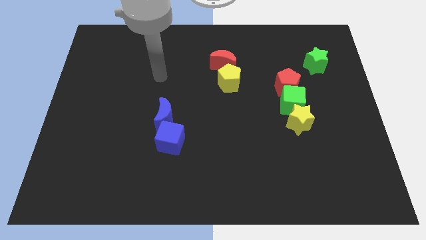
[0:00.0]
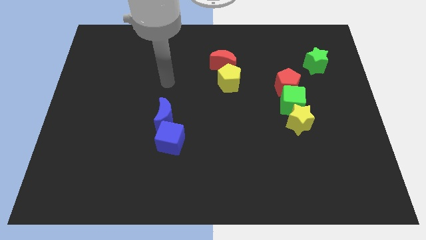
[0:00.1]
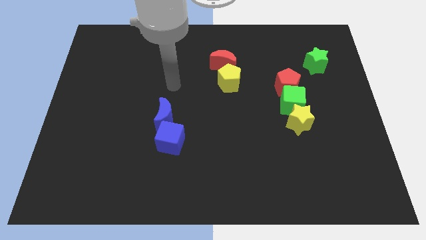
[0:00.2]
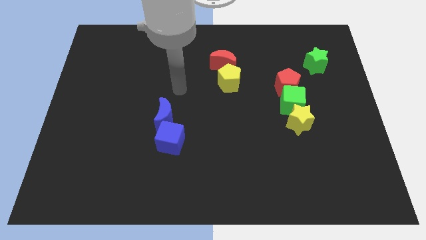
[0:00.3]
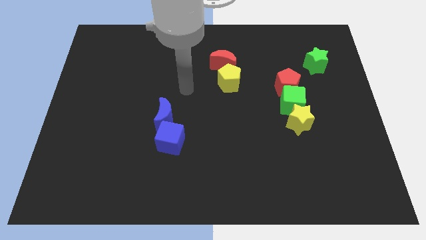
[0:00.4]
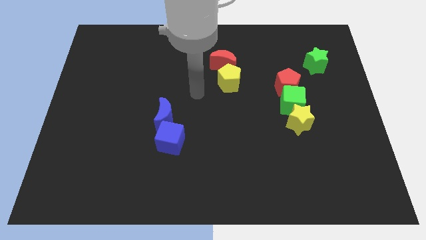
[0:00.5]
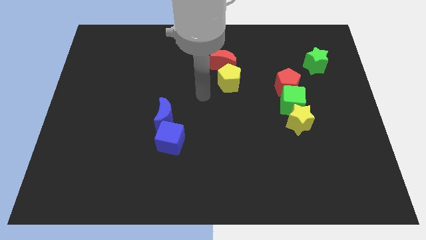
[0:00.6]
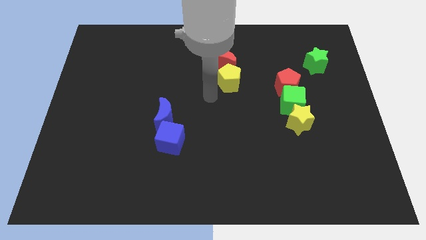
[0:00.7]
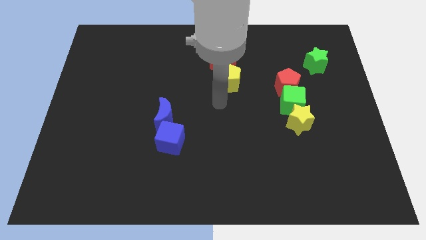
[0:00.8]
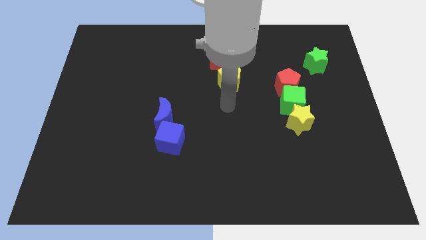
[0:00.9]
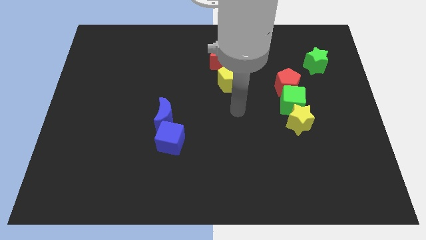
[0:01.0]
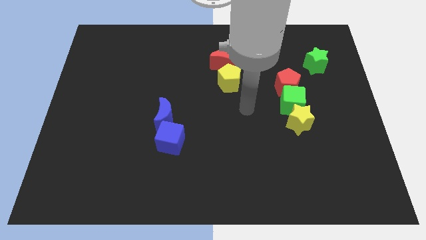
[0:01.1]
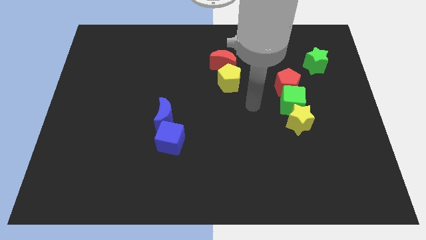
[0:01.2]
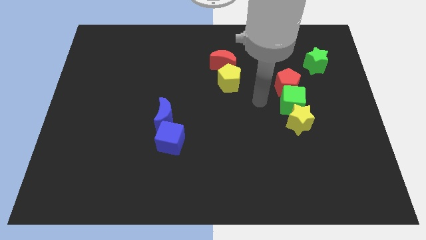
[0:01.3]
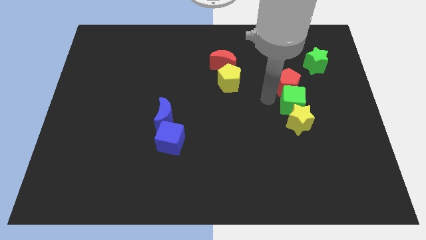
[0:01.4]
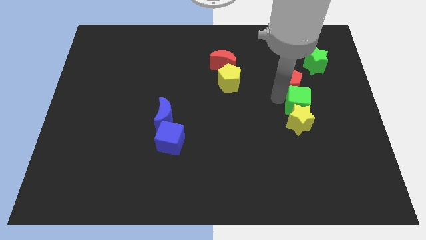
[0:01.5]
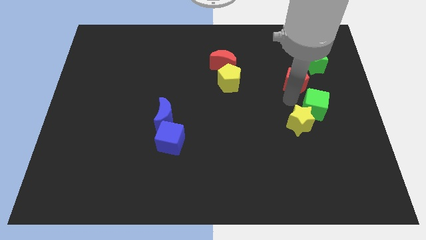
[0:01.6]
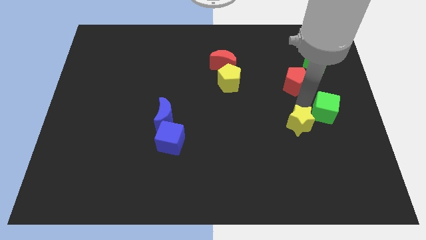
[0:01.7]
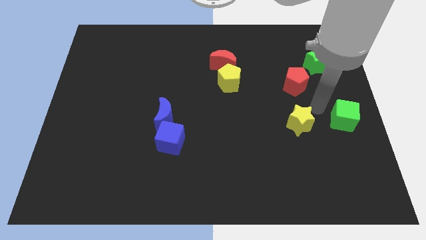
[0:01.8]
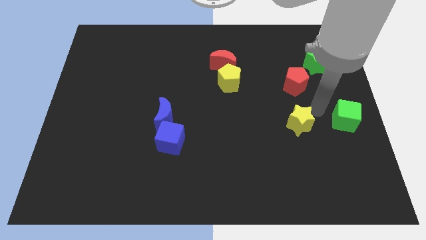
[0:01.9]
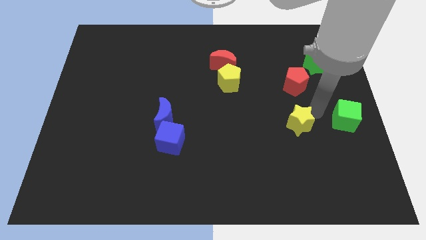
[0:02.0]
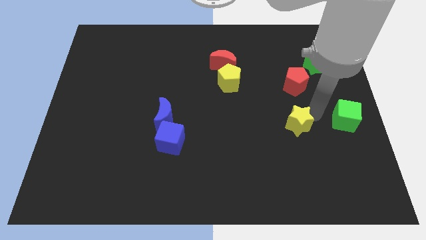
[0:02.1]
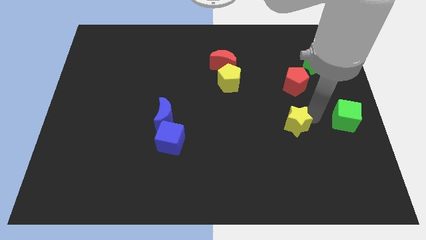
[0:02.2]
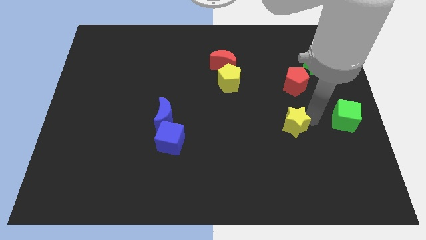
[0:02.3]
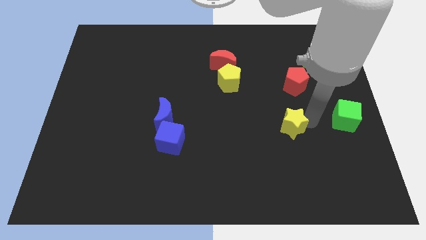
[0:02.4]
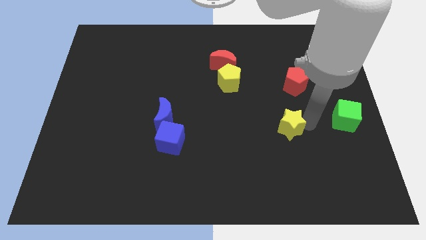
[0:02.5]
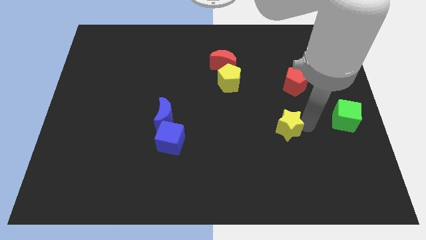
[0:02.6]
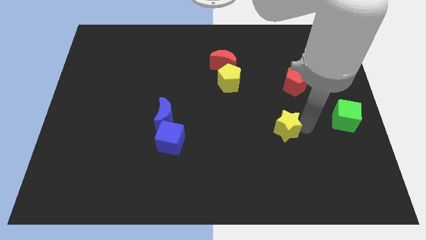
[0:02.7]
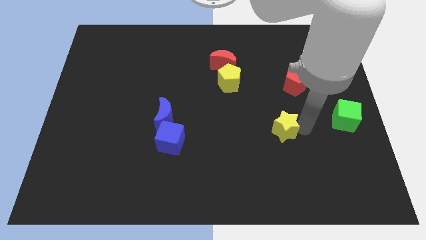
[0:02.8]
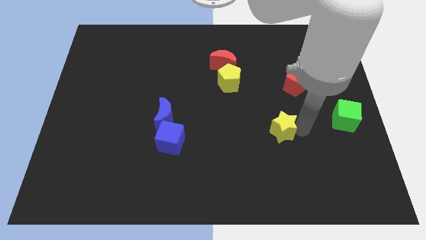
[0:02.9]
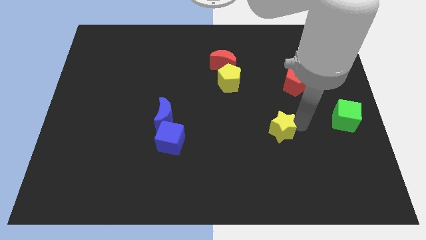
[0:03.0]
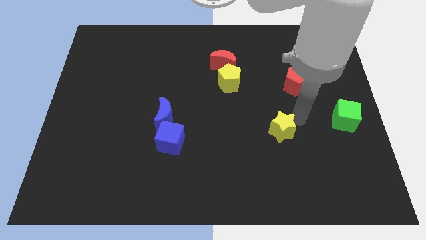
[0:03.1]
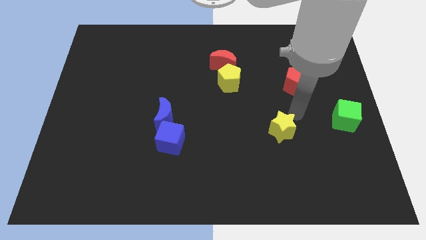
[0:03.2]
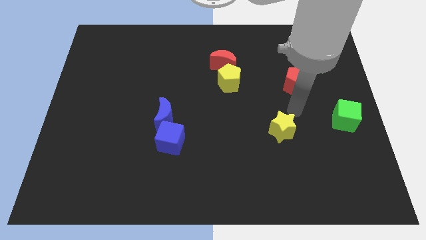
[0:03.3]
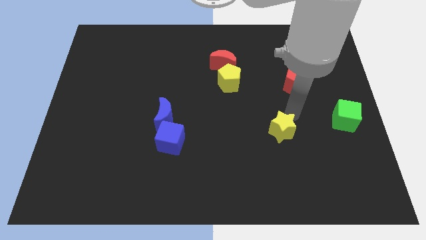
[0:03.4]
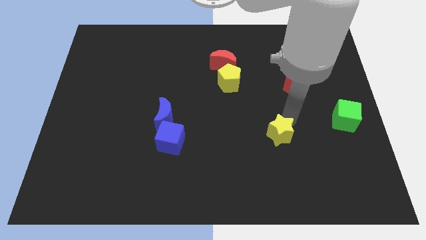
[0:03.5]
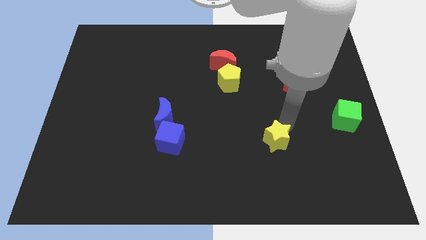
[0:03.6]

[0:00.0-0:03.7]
push the yellow star a little bit downwards and then to the left

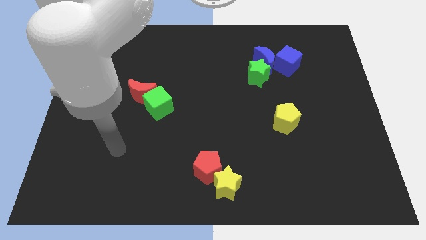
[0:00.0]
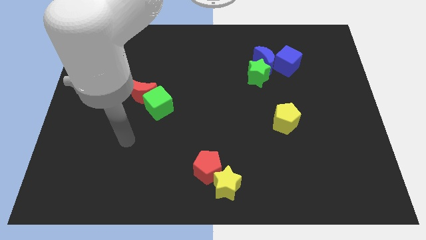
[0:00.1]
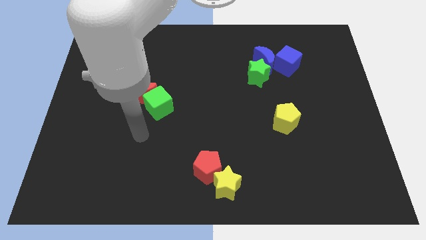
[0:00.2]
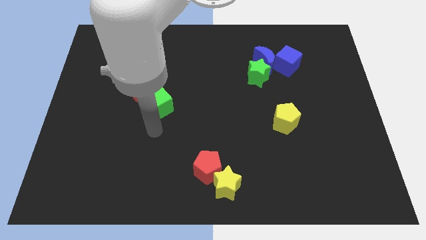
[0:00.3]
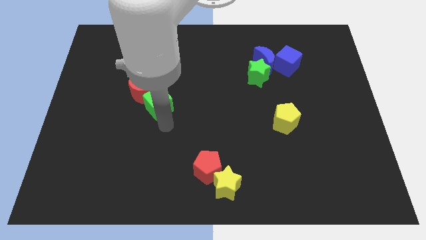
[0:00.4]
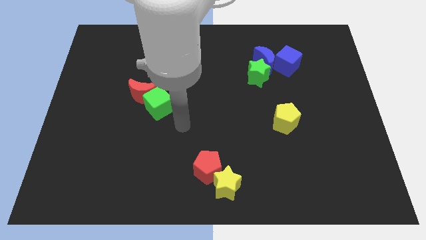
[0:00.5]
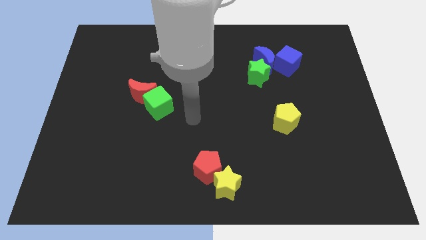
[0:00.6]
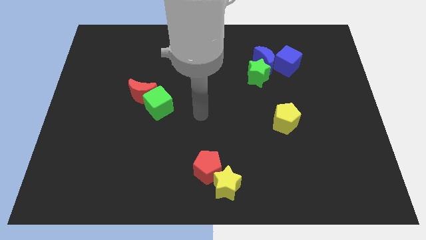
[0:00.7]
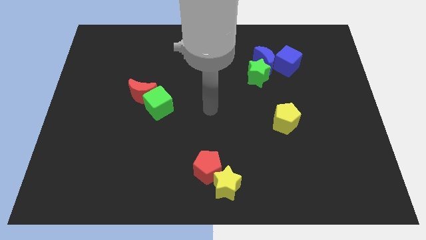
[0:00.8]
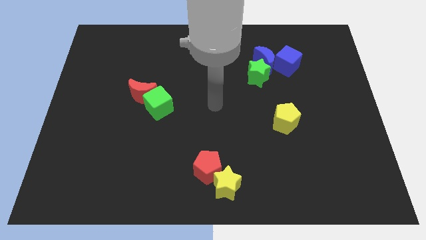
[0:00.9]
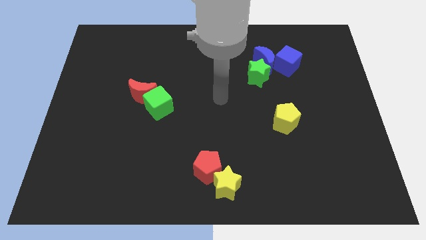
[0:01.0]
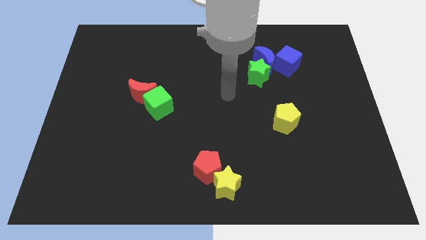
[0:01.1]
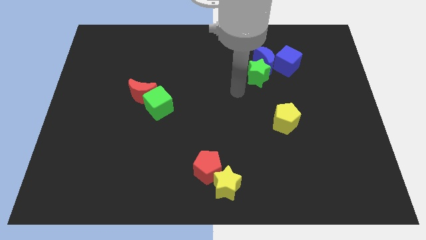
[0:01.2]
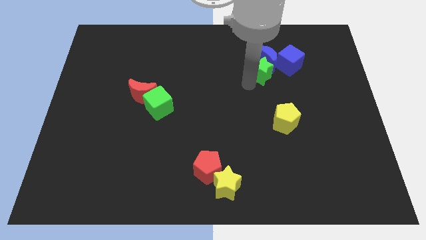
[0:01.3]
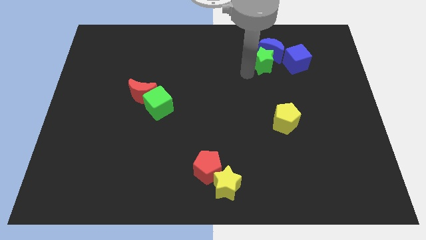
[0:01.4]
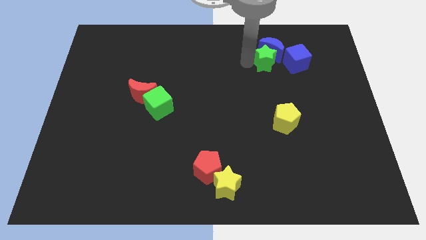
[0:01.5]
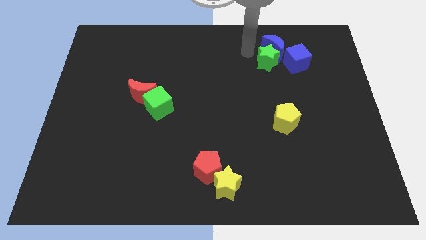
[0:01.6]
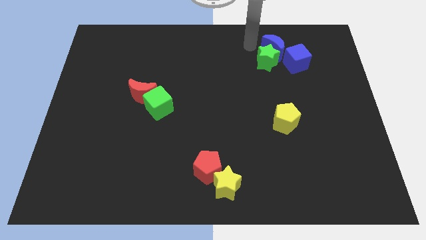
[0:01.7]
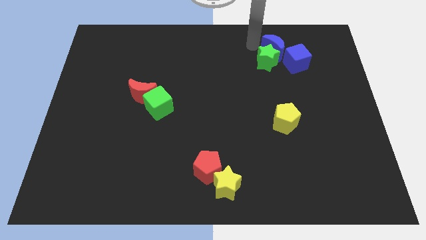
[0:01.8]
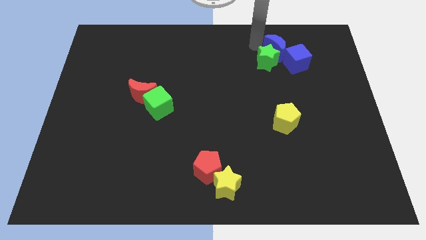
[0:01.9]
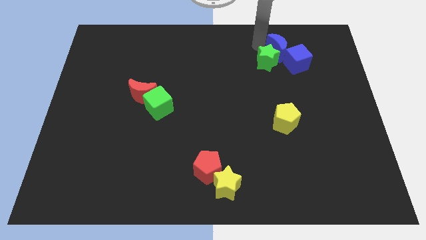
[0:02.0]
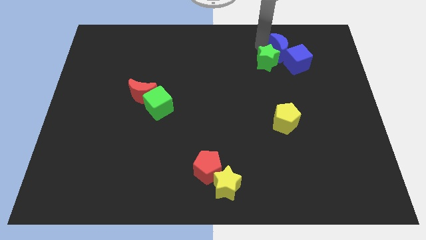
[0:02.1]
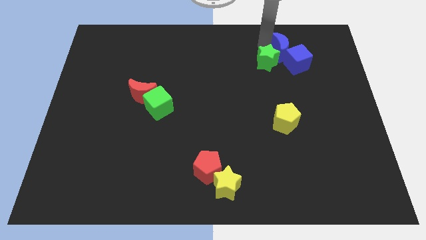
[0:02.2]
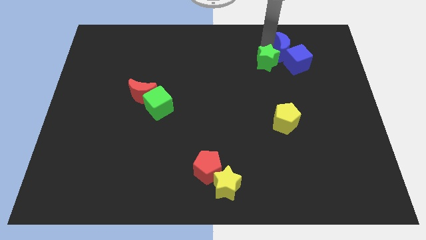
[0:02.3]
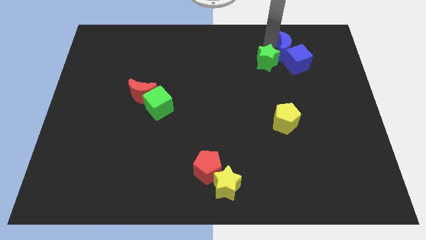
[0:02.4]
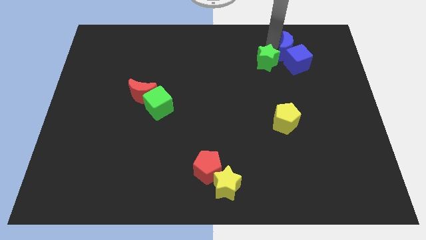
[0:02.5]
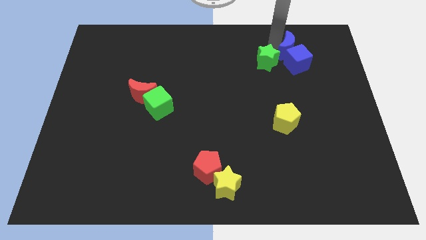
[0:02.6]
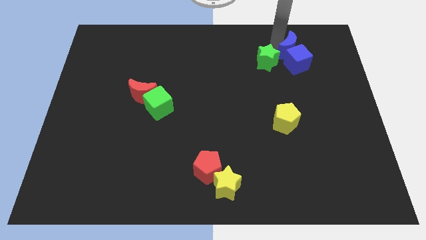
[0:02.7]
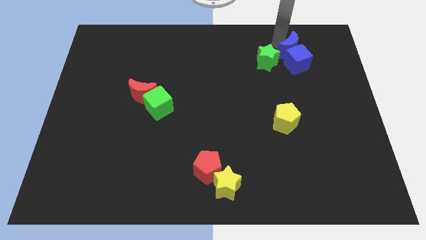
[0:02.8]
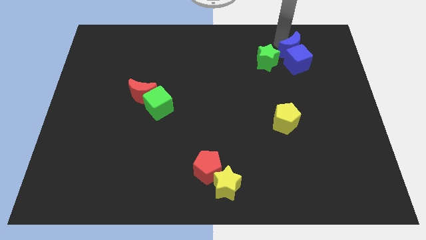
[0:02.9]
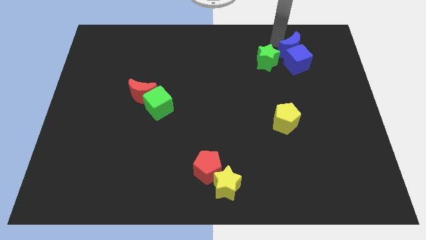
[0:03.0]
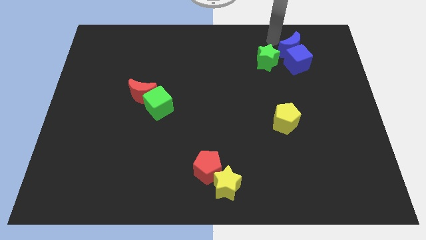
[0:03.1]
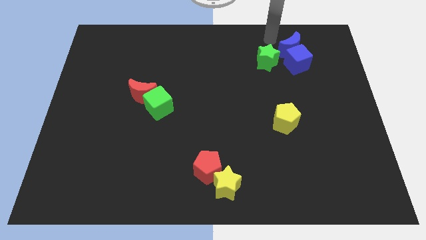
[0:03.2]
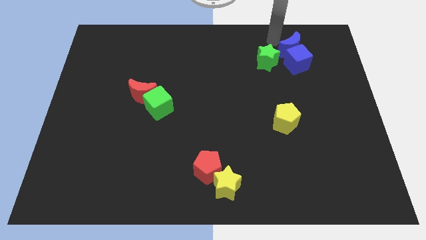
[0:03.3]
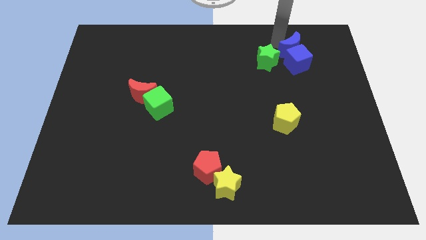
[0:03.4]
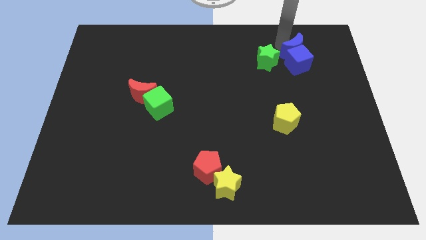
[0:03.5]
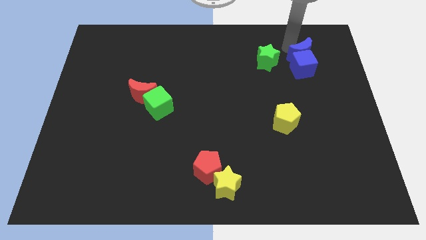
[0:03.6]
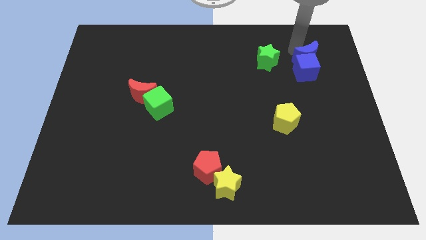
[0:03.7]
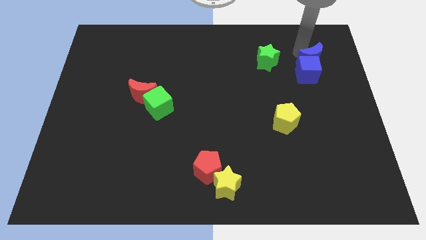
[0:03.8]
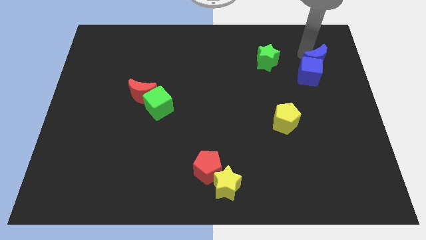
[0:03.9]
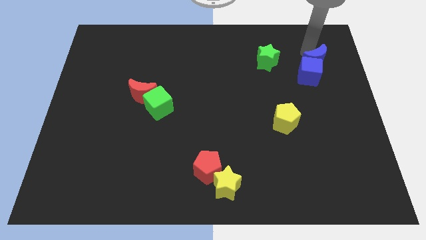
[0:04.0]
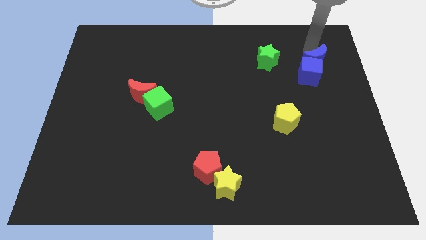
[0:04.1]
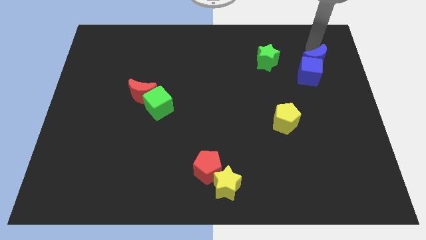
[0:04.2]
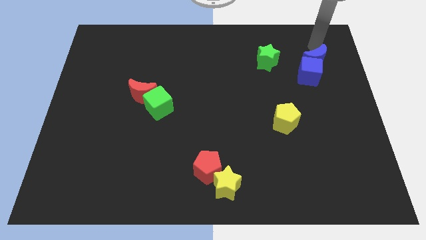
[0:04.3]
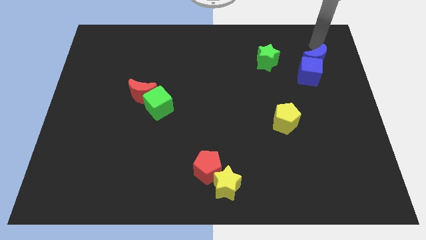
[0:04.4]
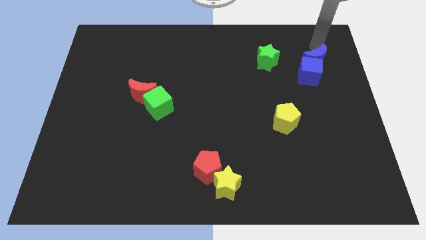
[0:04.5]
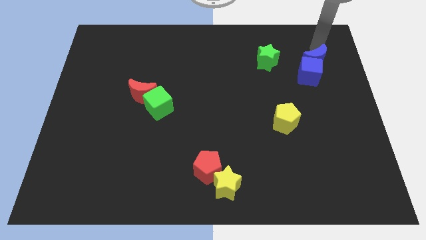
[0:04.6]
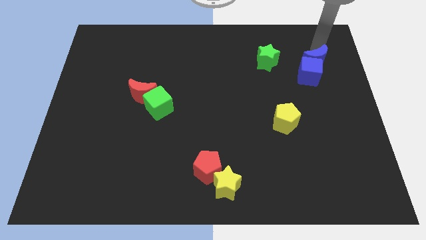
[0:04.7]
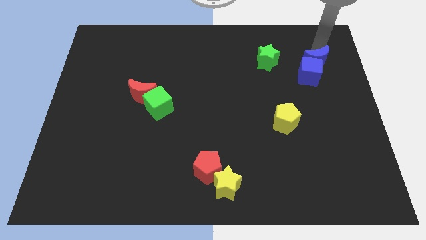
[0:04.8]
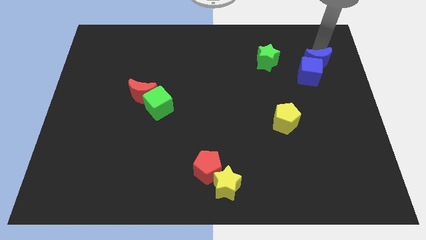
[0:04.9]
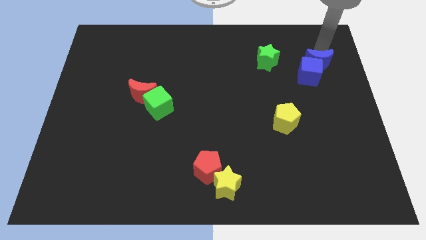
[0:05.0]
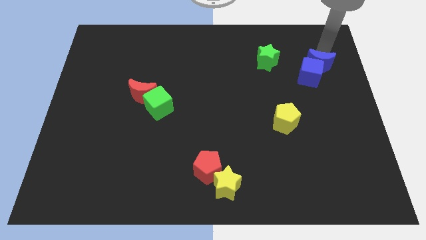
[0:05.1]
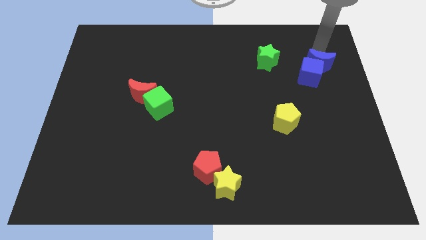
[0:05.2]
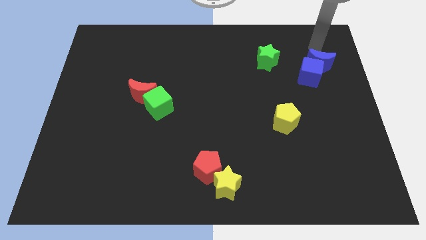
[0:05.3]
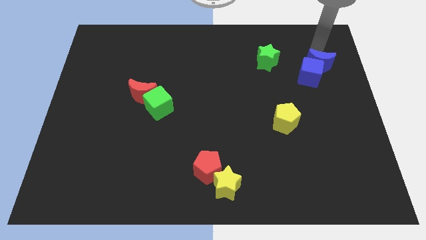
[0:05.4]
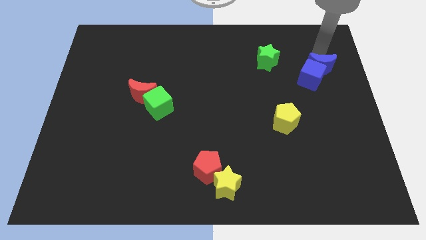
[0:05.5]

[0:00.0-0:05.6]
slightly move the blue moon down and right diagonally
